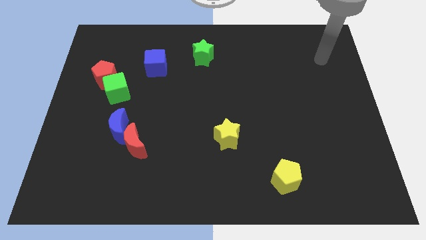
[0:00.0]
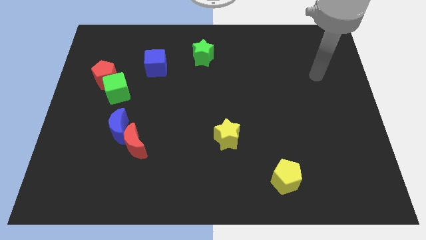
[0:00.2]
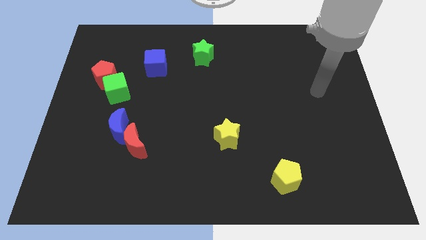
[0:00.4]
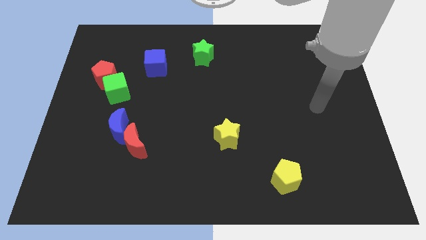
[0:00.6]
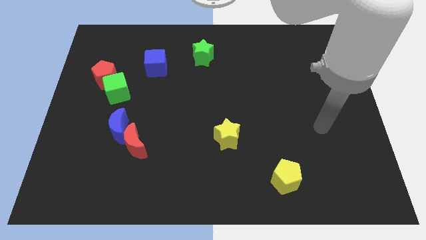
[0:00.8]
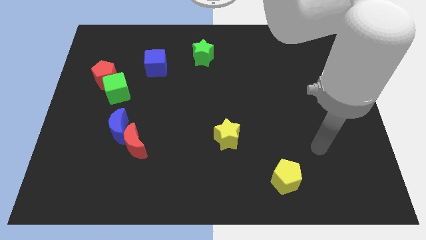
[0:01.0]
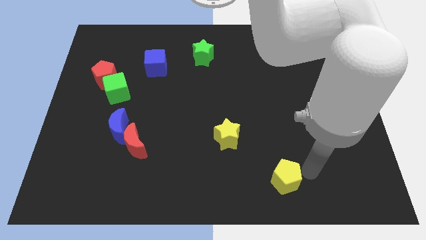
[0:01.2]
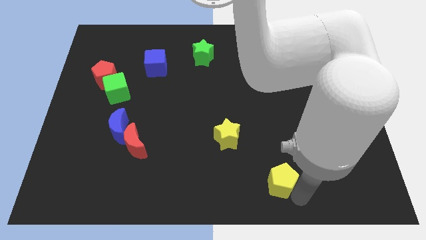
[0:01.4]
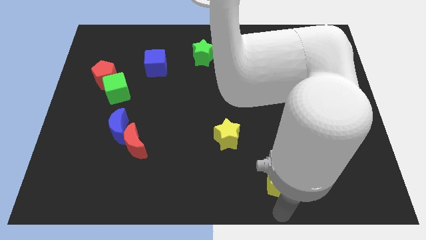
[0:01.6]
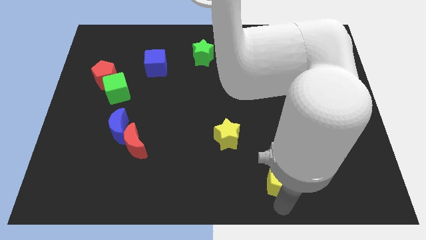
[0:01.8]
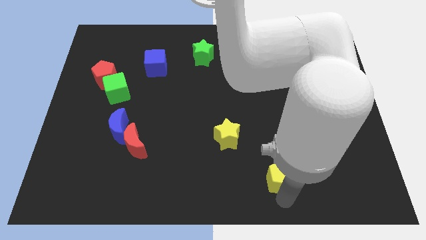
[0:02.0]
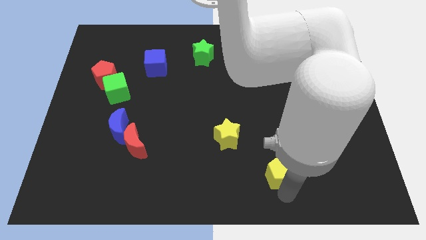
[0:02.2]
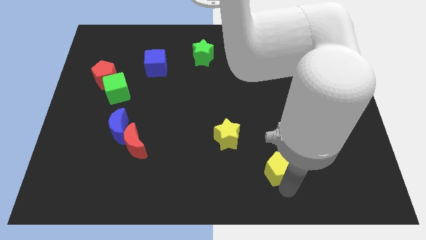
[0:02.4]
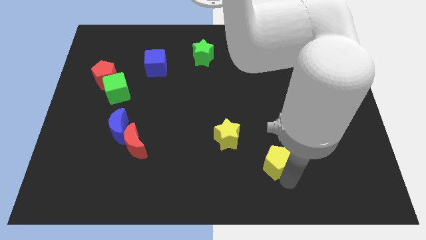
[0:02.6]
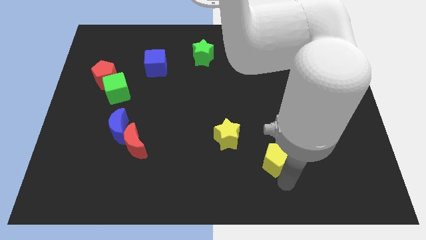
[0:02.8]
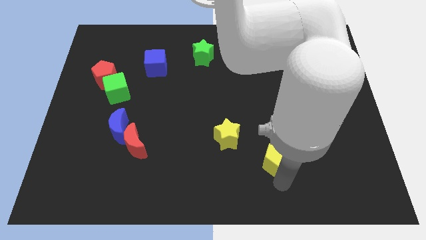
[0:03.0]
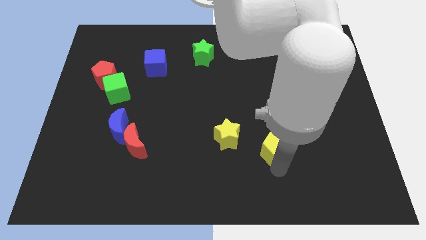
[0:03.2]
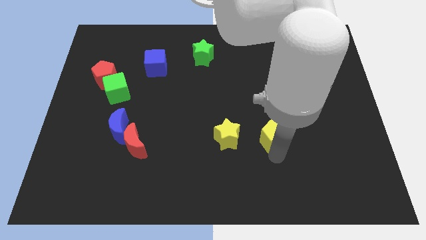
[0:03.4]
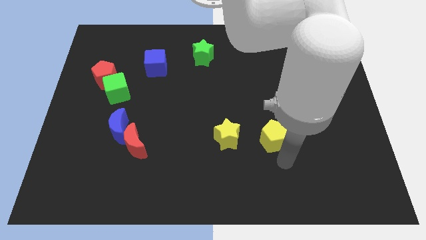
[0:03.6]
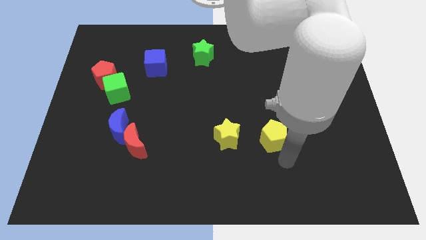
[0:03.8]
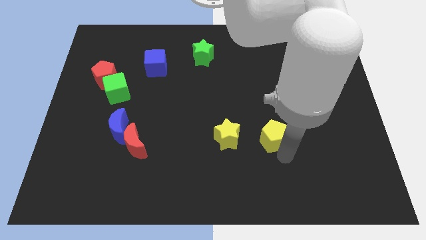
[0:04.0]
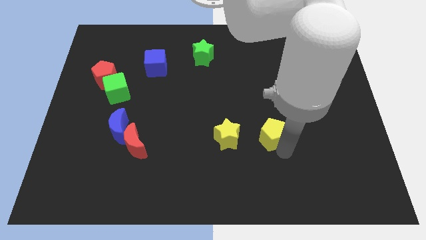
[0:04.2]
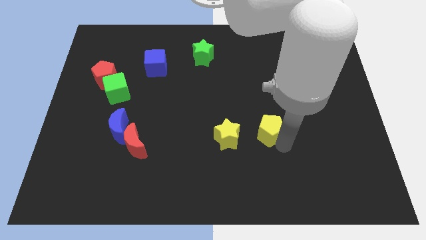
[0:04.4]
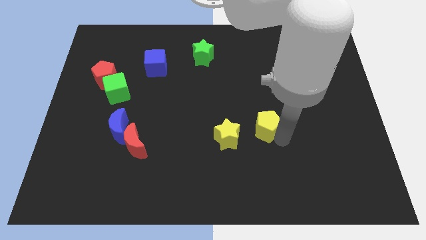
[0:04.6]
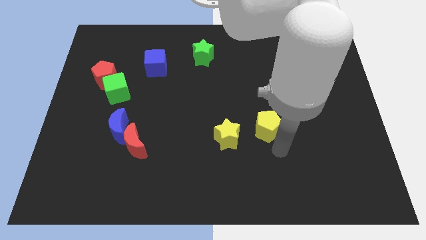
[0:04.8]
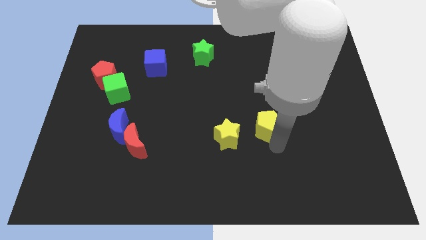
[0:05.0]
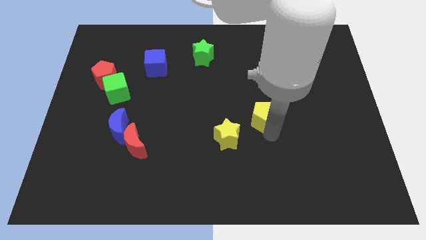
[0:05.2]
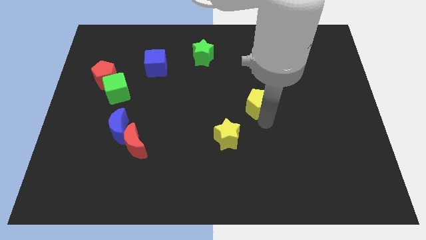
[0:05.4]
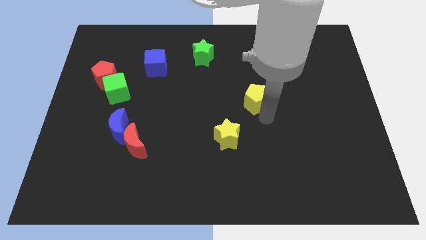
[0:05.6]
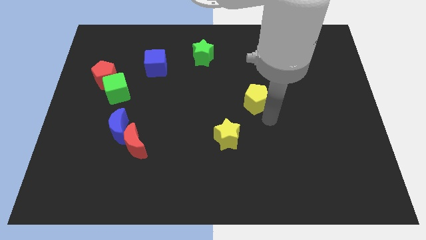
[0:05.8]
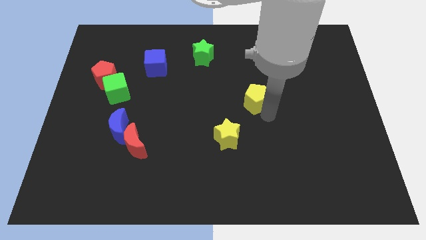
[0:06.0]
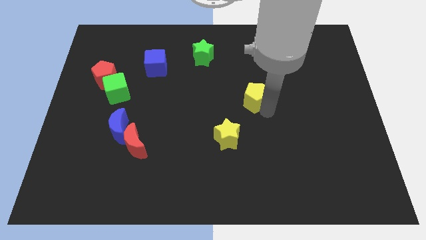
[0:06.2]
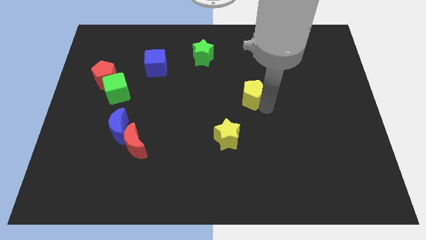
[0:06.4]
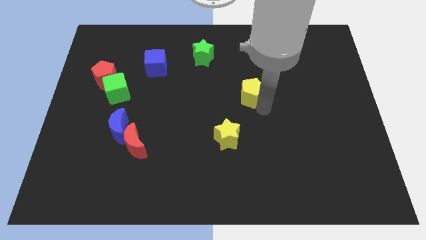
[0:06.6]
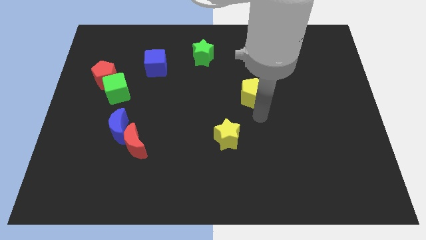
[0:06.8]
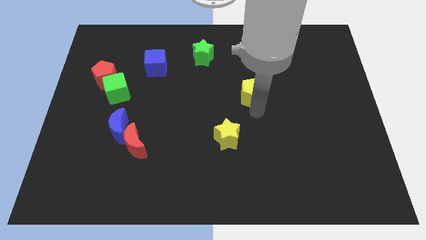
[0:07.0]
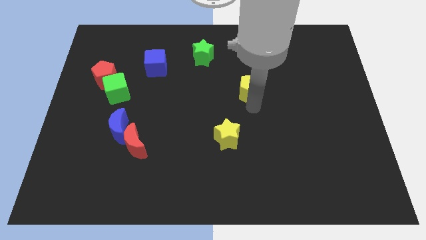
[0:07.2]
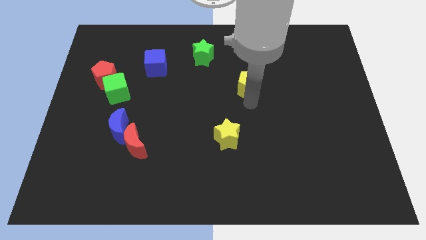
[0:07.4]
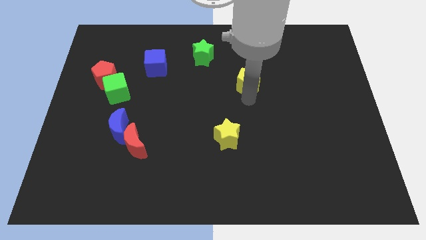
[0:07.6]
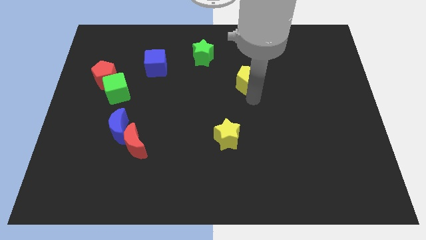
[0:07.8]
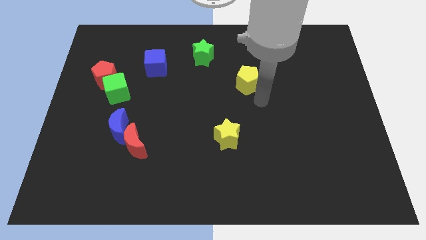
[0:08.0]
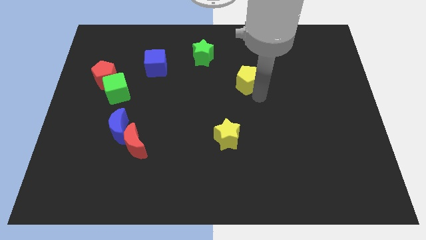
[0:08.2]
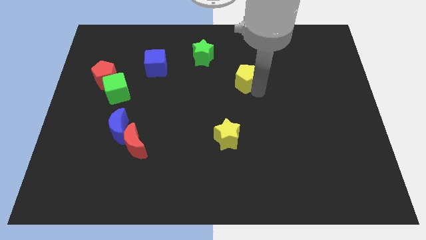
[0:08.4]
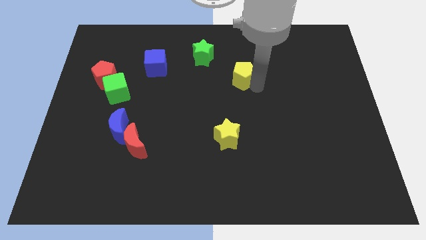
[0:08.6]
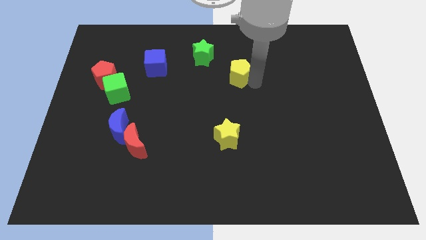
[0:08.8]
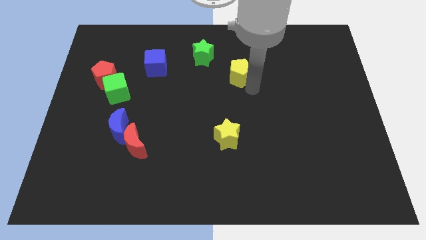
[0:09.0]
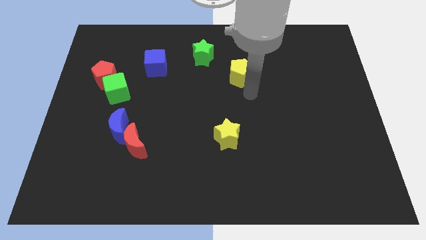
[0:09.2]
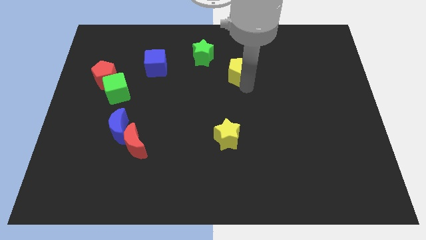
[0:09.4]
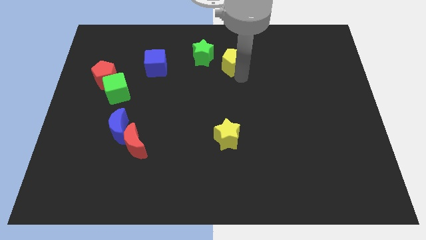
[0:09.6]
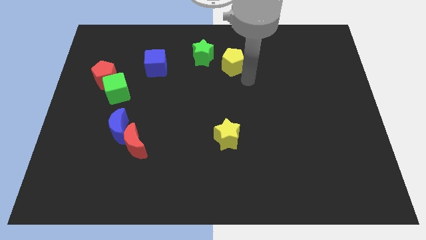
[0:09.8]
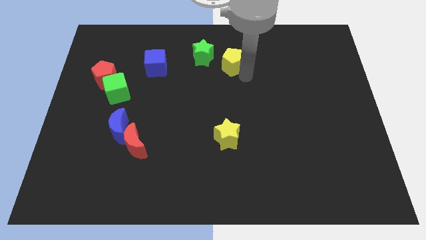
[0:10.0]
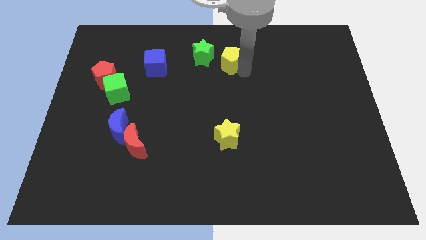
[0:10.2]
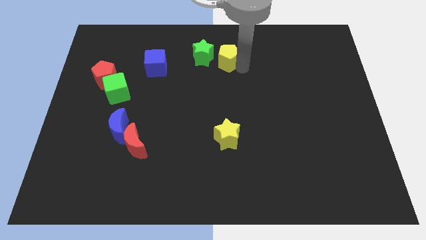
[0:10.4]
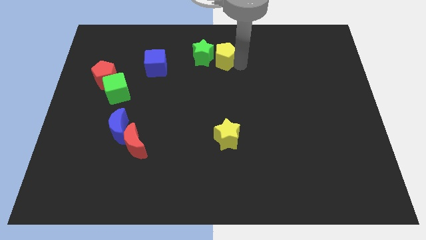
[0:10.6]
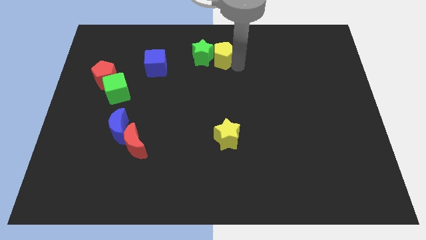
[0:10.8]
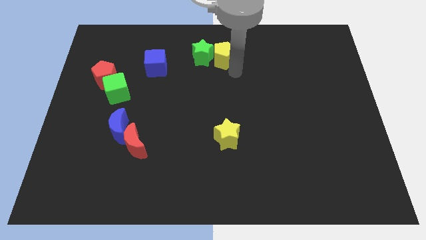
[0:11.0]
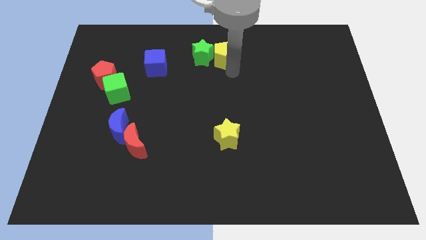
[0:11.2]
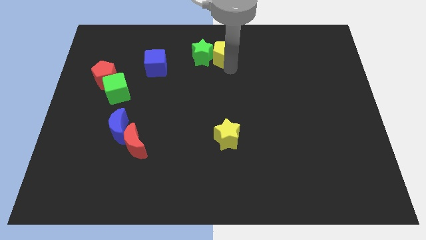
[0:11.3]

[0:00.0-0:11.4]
move the yellow pentagon to the top side

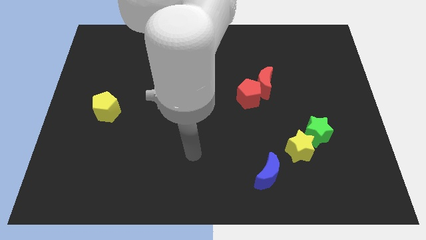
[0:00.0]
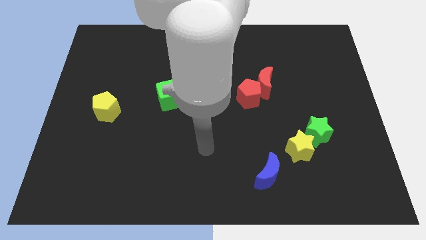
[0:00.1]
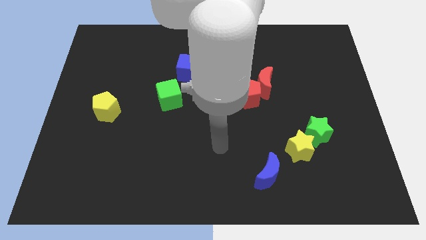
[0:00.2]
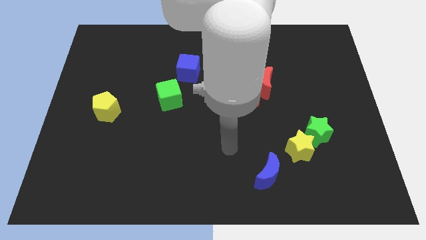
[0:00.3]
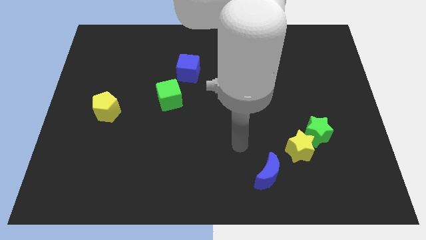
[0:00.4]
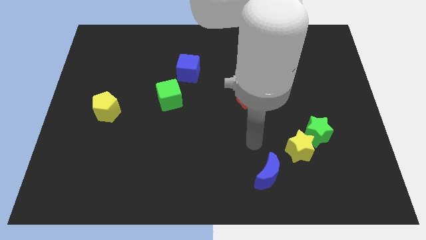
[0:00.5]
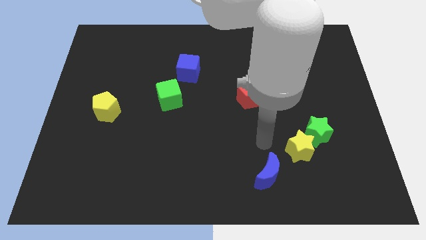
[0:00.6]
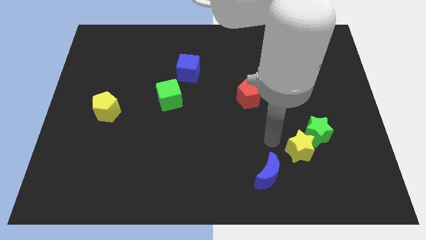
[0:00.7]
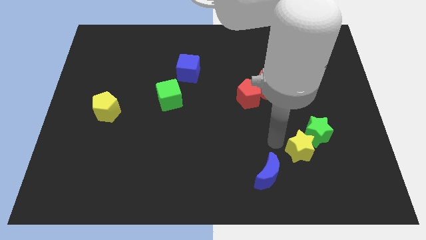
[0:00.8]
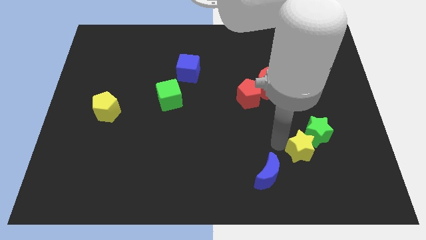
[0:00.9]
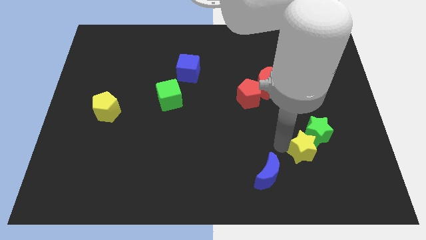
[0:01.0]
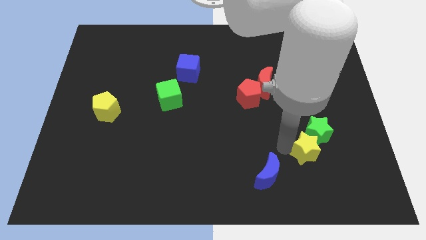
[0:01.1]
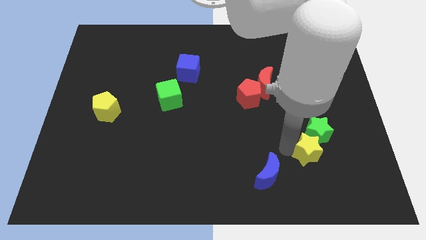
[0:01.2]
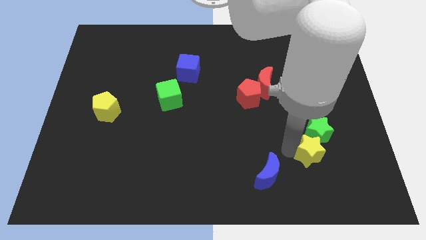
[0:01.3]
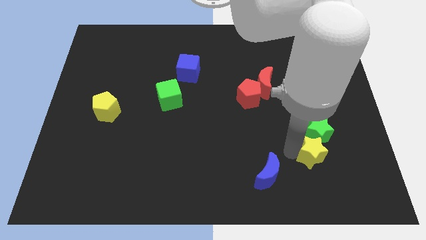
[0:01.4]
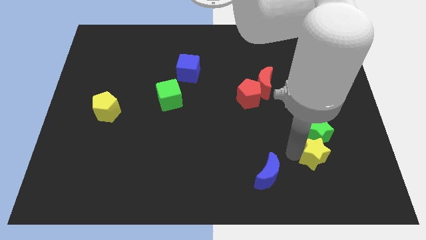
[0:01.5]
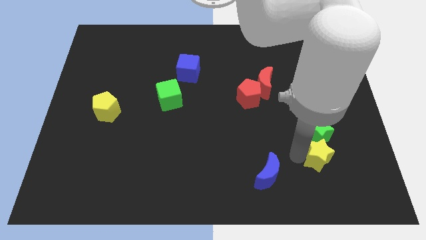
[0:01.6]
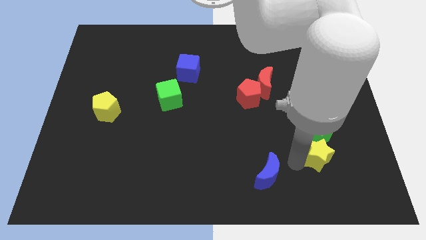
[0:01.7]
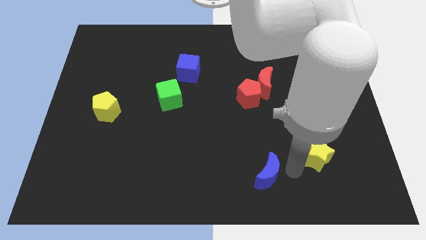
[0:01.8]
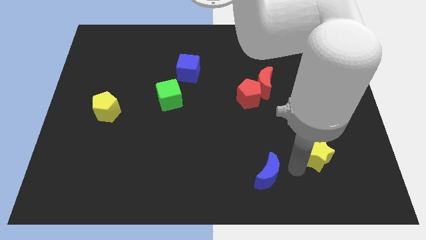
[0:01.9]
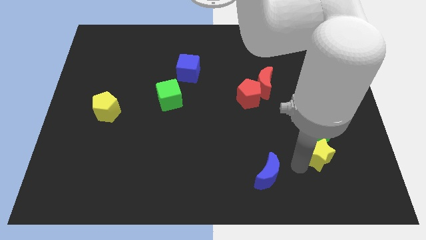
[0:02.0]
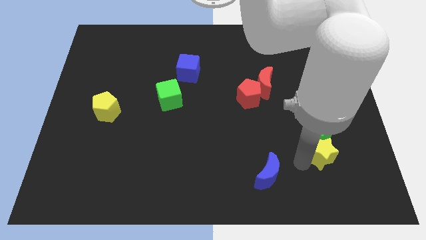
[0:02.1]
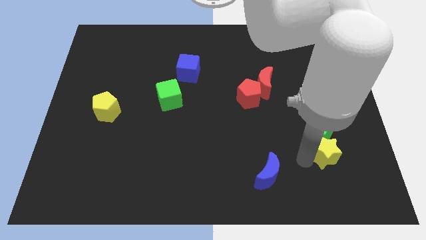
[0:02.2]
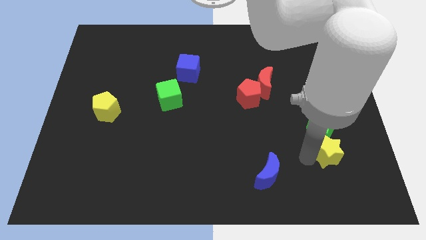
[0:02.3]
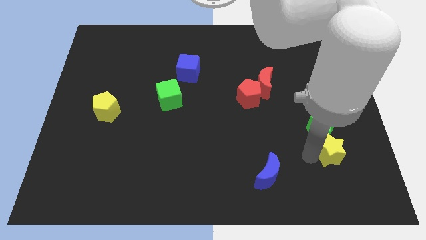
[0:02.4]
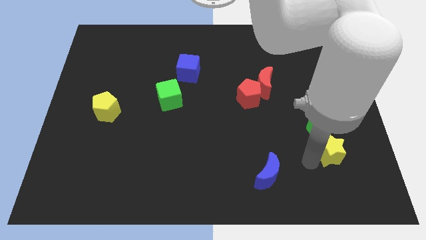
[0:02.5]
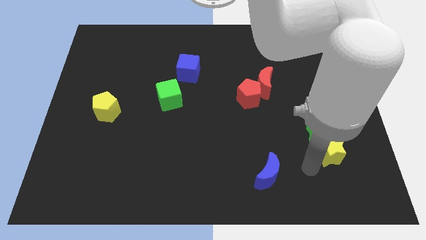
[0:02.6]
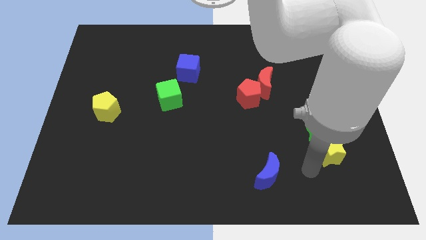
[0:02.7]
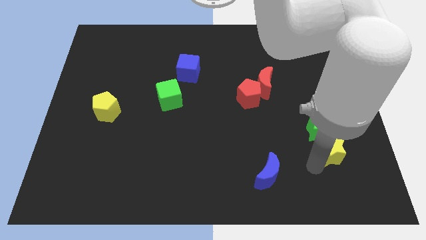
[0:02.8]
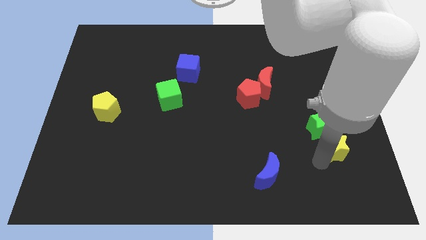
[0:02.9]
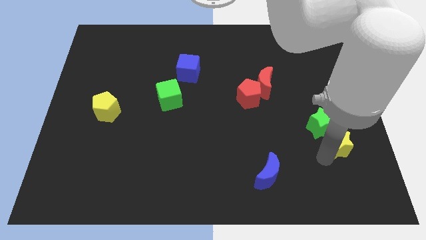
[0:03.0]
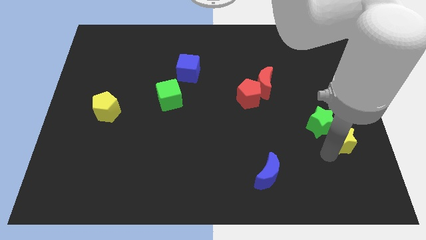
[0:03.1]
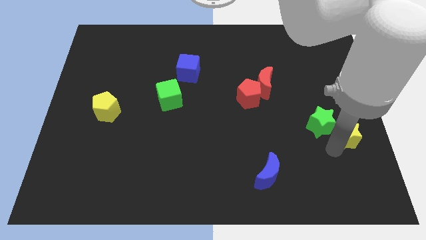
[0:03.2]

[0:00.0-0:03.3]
move the yellow star to the center right
